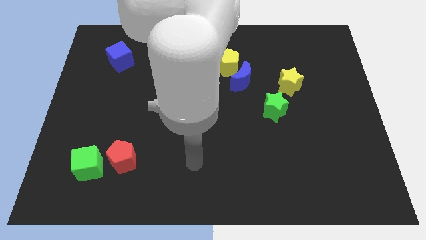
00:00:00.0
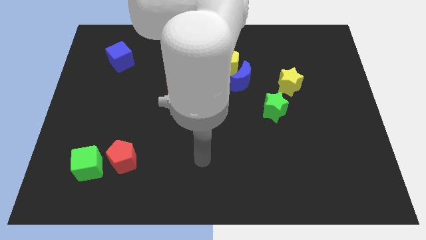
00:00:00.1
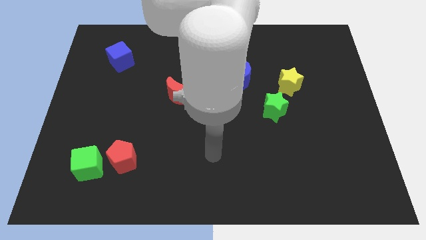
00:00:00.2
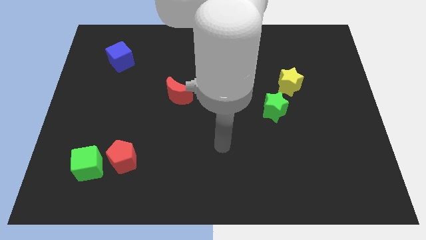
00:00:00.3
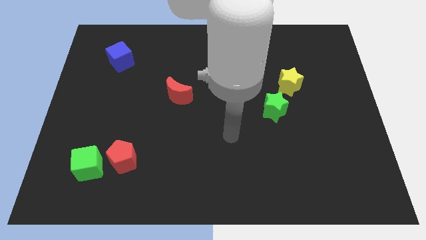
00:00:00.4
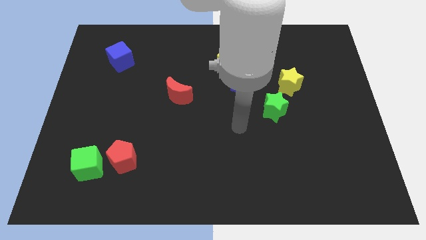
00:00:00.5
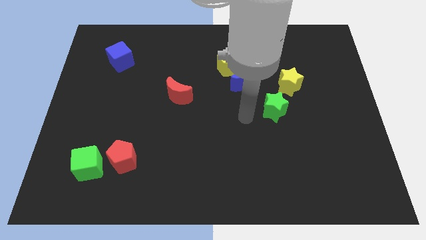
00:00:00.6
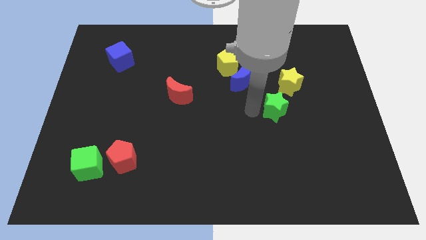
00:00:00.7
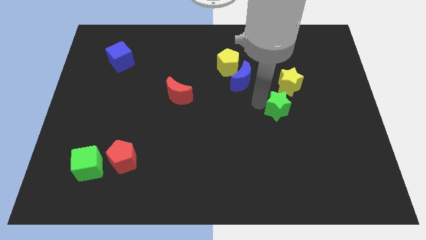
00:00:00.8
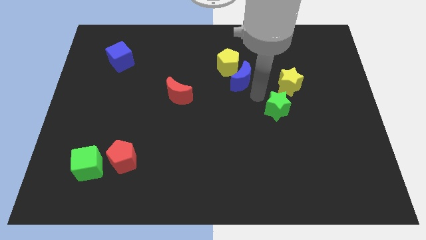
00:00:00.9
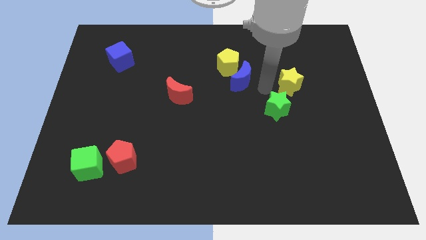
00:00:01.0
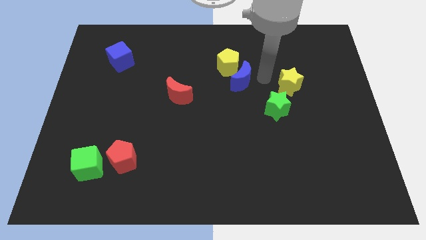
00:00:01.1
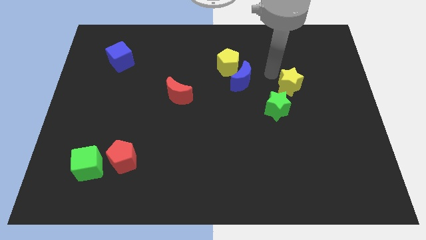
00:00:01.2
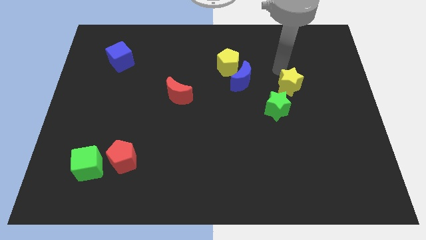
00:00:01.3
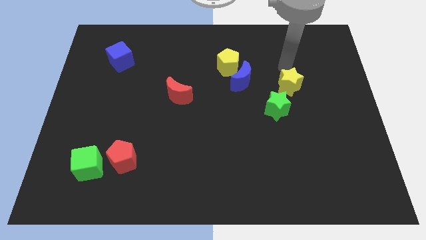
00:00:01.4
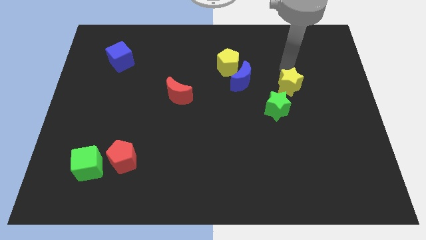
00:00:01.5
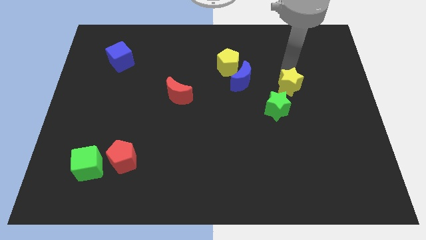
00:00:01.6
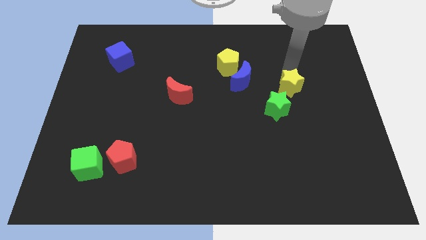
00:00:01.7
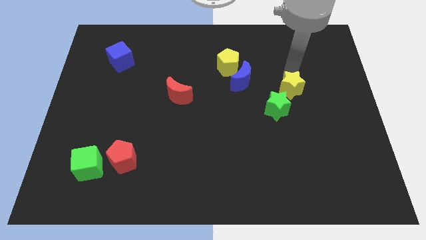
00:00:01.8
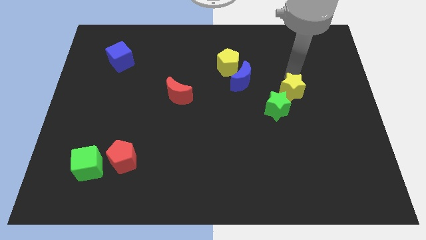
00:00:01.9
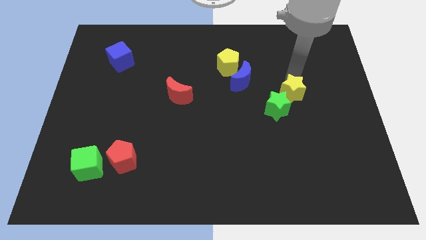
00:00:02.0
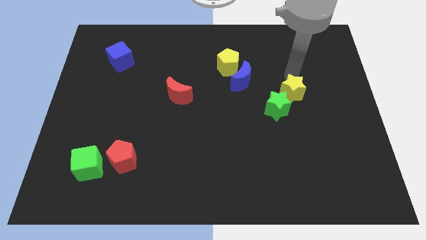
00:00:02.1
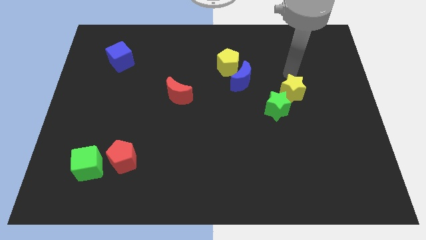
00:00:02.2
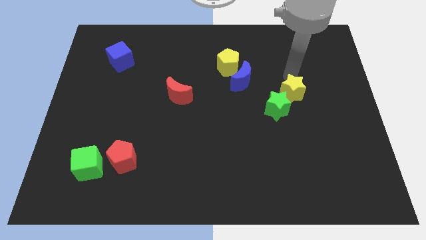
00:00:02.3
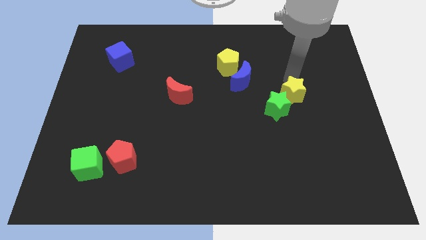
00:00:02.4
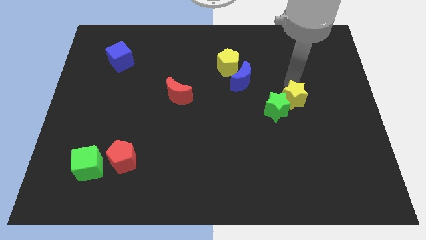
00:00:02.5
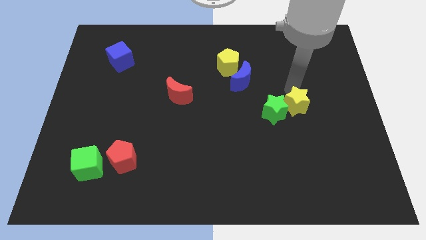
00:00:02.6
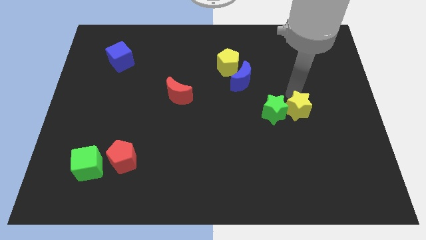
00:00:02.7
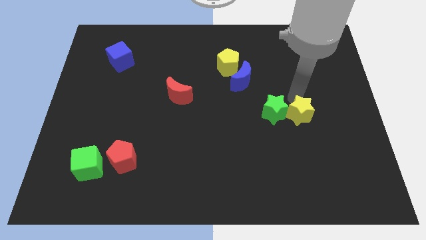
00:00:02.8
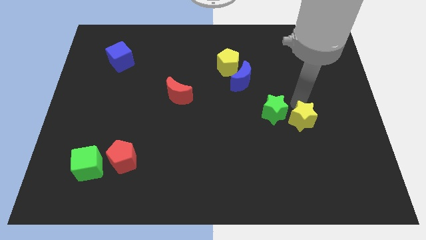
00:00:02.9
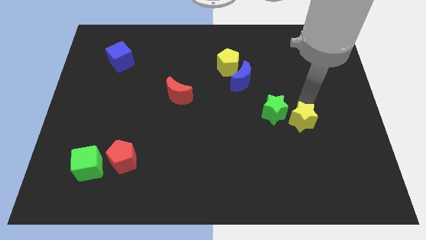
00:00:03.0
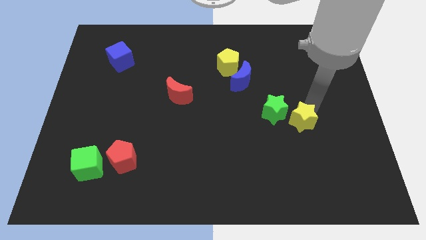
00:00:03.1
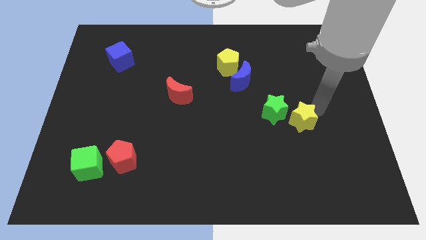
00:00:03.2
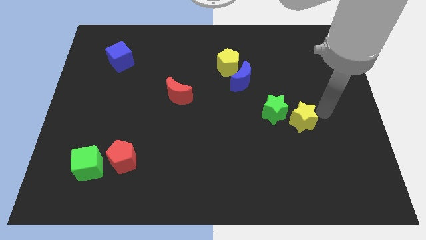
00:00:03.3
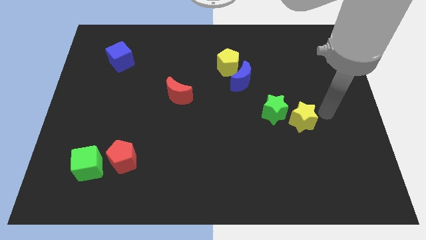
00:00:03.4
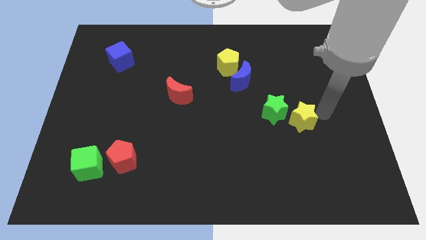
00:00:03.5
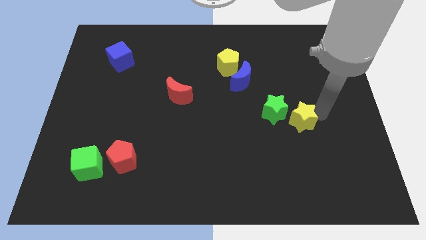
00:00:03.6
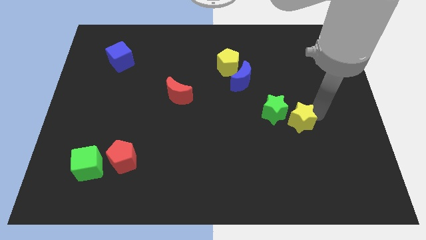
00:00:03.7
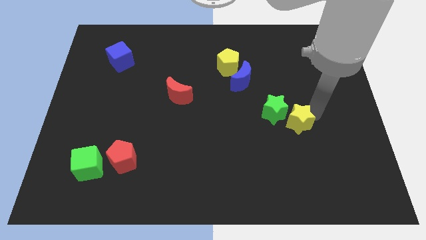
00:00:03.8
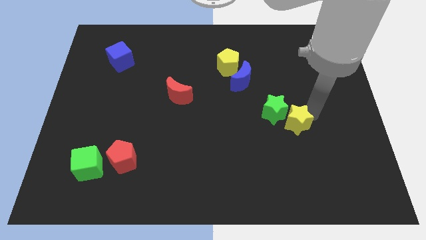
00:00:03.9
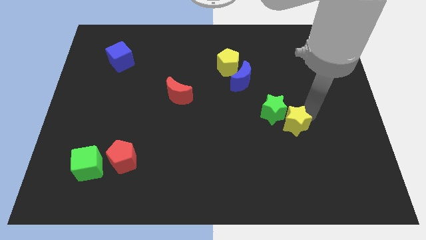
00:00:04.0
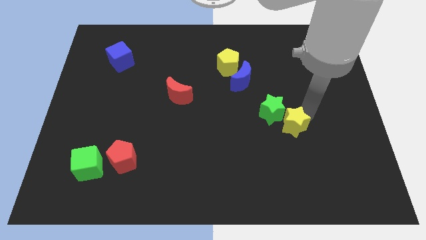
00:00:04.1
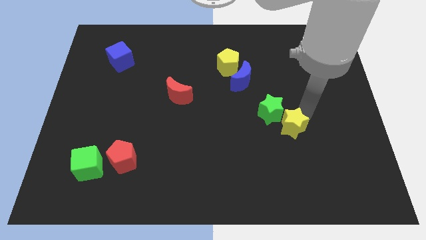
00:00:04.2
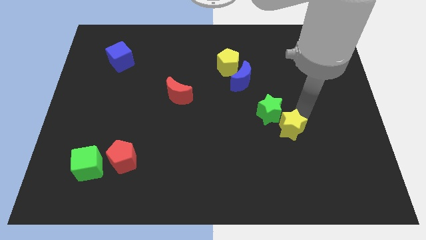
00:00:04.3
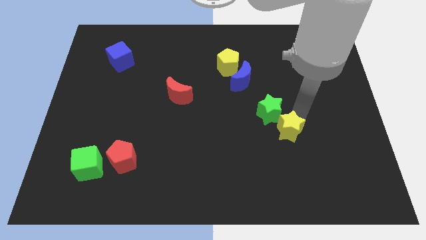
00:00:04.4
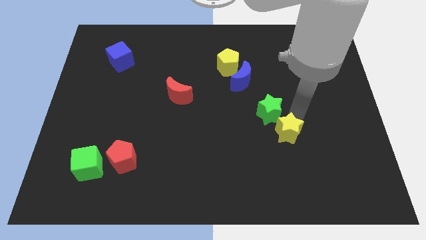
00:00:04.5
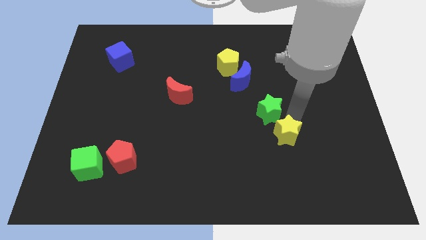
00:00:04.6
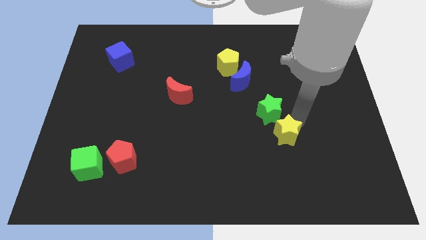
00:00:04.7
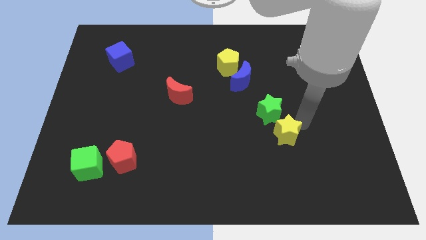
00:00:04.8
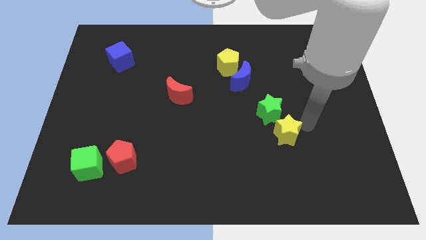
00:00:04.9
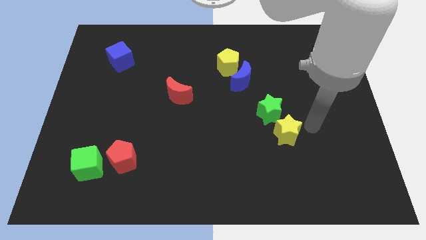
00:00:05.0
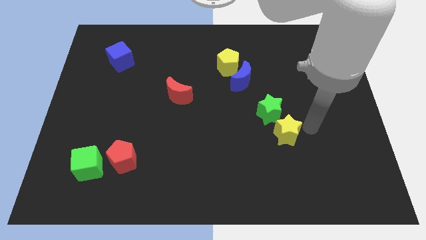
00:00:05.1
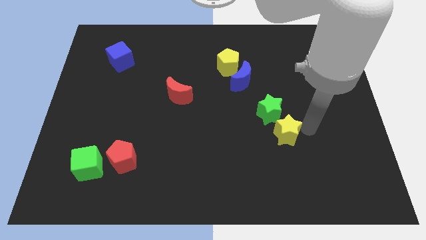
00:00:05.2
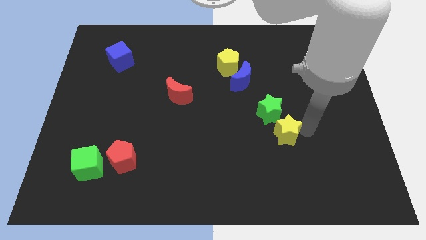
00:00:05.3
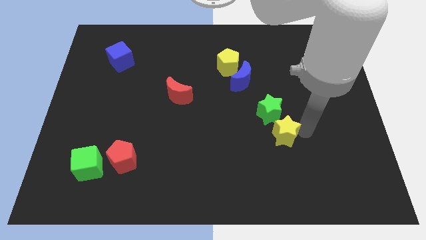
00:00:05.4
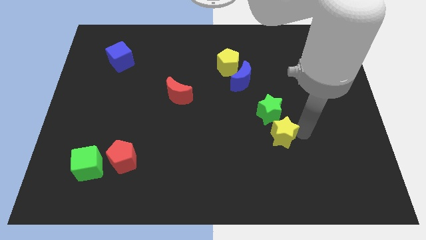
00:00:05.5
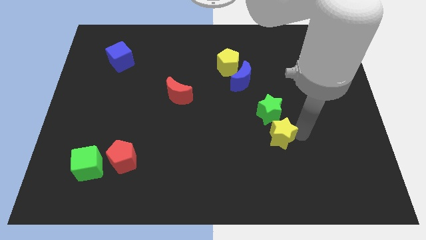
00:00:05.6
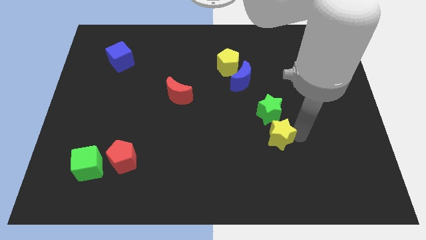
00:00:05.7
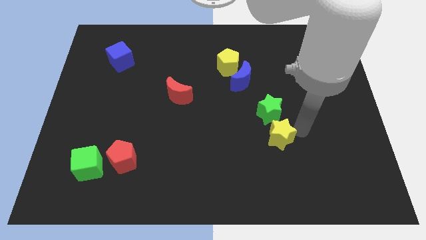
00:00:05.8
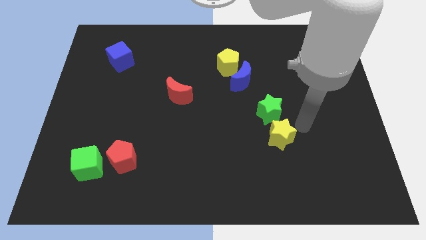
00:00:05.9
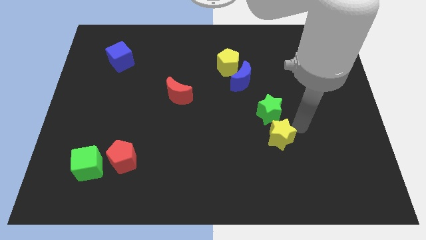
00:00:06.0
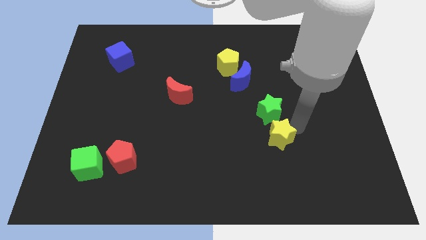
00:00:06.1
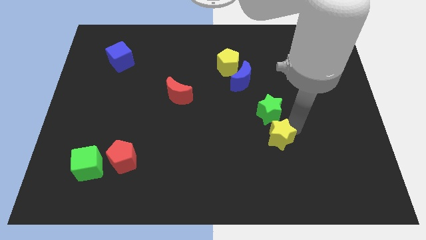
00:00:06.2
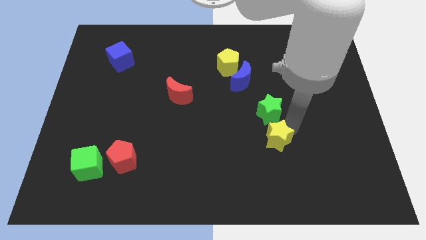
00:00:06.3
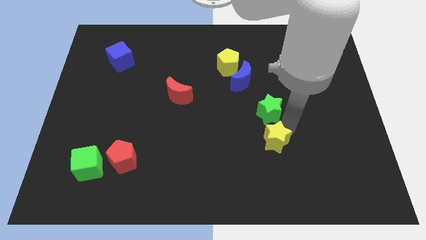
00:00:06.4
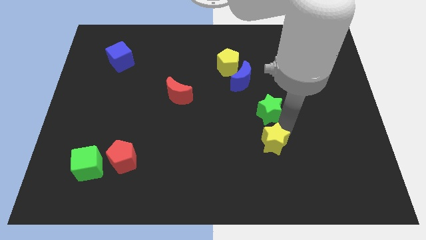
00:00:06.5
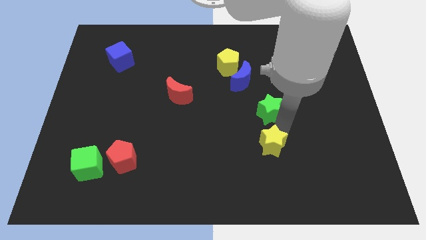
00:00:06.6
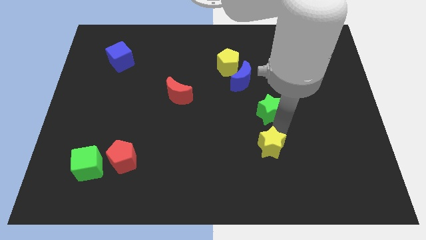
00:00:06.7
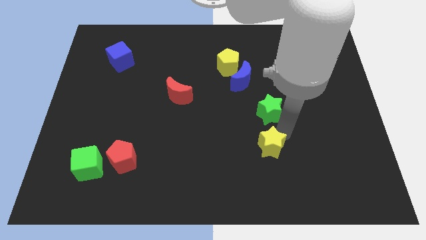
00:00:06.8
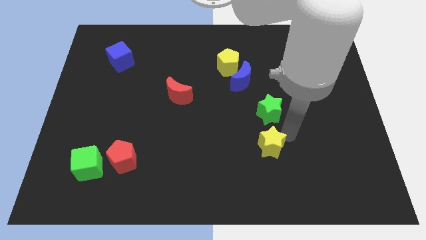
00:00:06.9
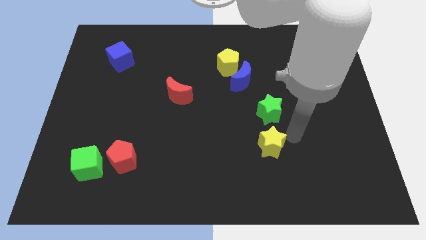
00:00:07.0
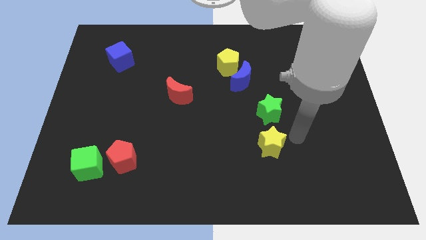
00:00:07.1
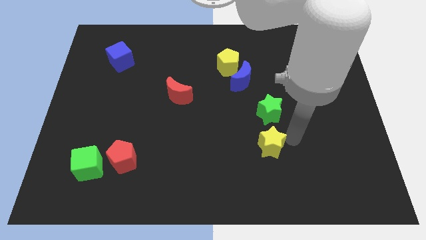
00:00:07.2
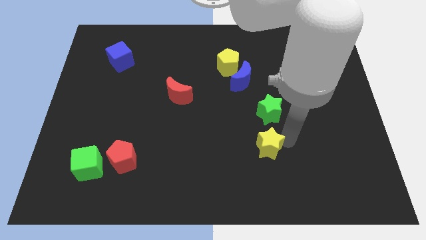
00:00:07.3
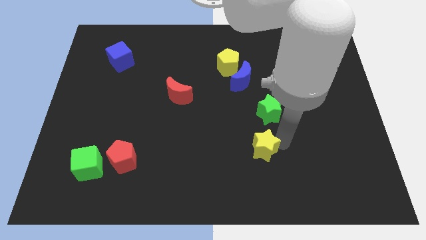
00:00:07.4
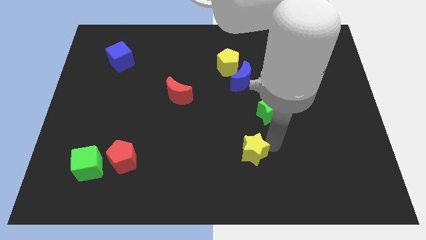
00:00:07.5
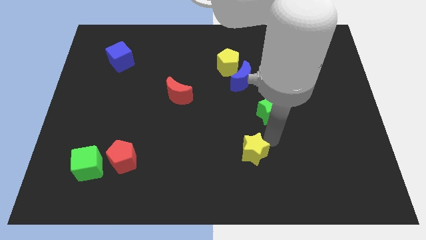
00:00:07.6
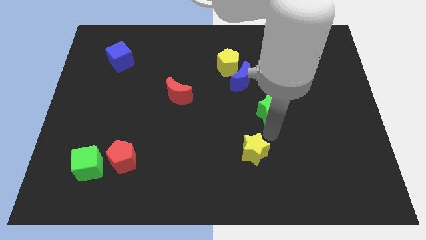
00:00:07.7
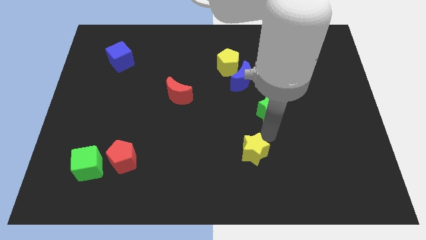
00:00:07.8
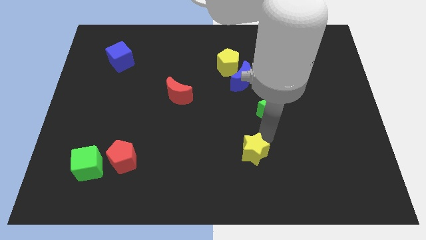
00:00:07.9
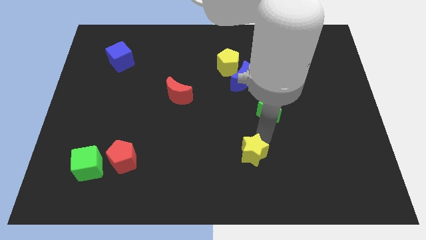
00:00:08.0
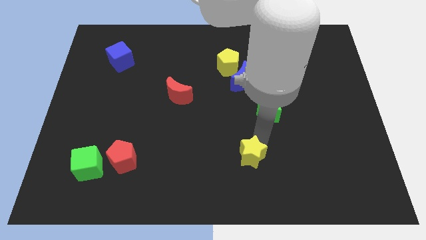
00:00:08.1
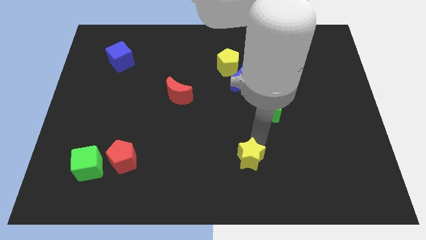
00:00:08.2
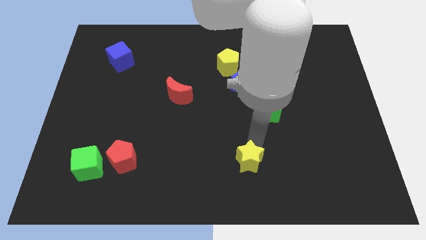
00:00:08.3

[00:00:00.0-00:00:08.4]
slide the yellow star to the bottom side
